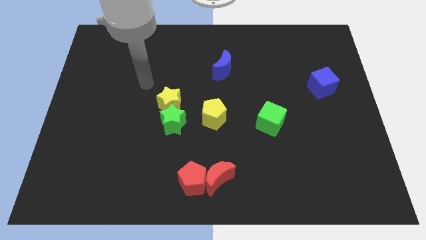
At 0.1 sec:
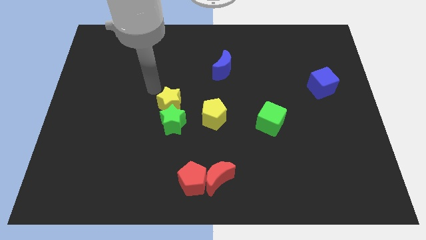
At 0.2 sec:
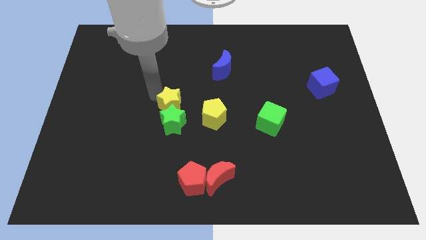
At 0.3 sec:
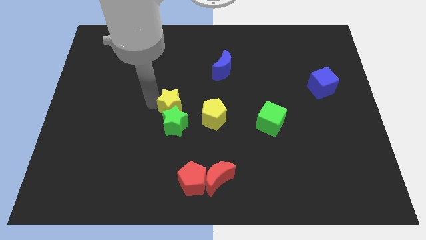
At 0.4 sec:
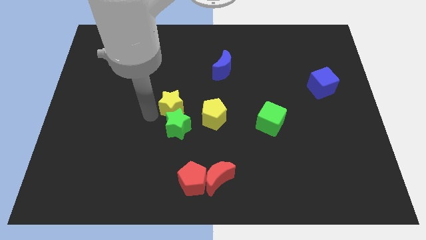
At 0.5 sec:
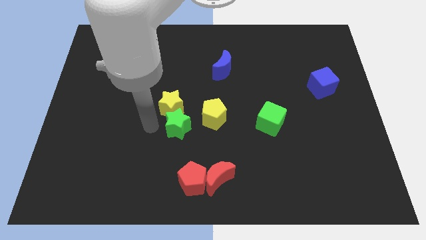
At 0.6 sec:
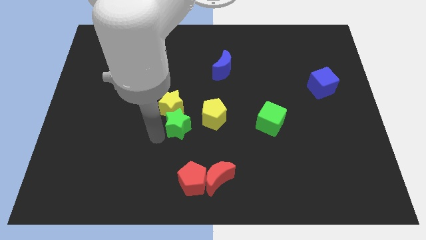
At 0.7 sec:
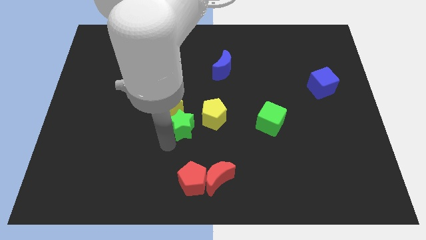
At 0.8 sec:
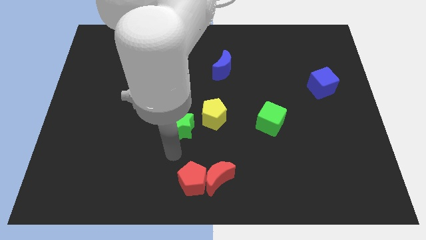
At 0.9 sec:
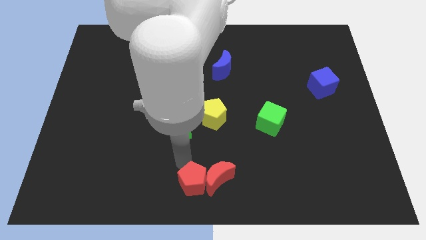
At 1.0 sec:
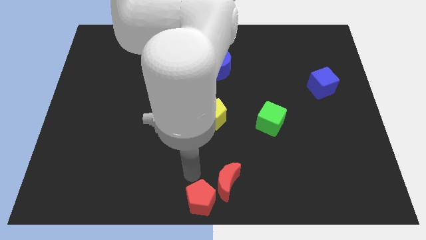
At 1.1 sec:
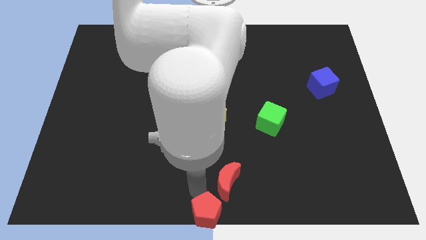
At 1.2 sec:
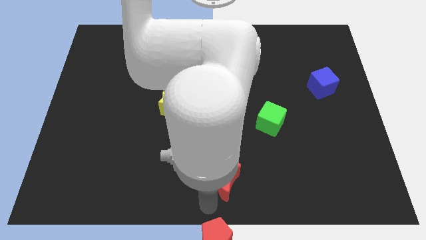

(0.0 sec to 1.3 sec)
move the red moon away from the red pentagon

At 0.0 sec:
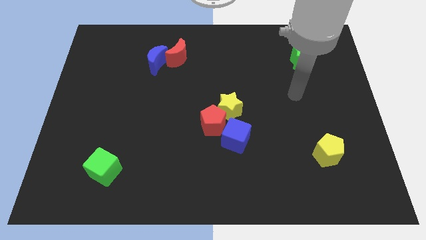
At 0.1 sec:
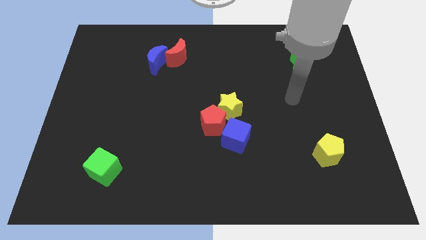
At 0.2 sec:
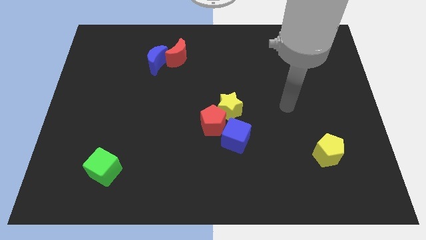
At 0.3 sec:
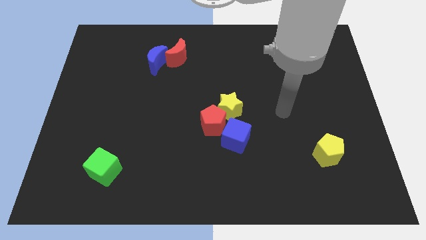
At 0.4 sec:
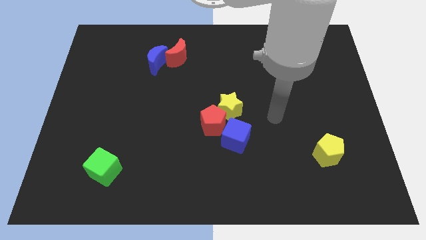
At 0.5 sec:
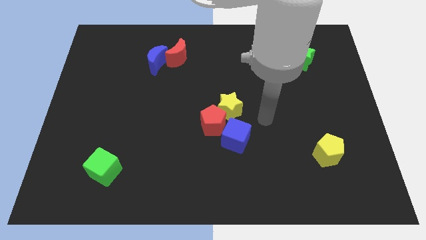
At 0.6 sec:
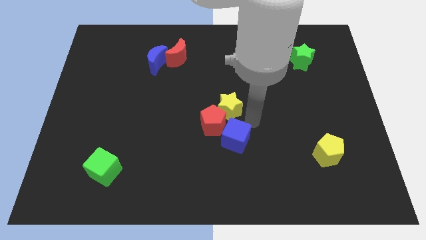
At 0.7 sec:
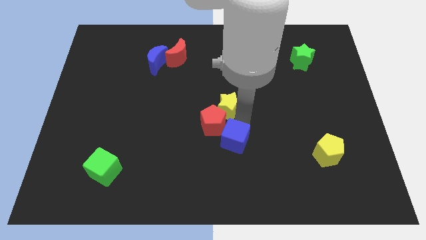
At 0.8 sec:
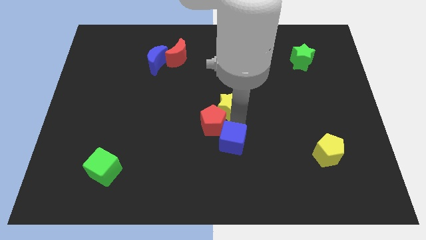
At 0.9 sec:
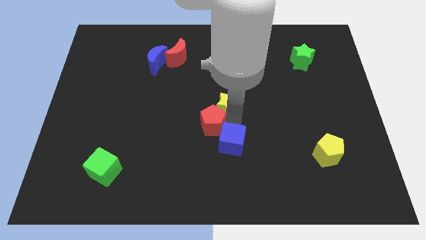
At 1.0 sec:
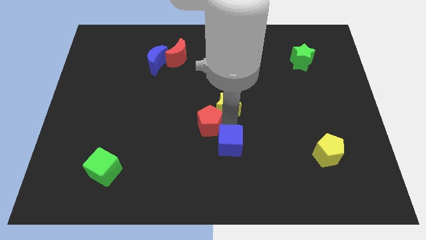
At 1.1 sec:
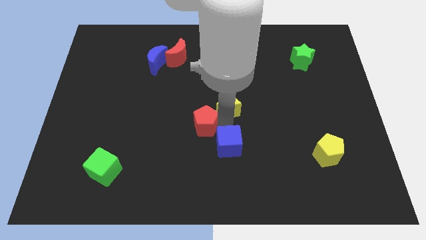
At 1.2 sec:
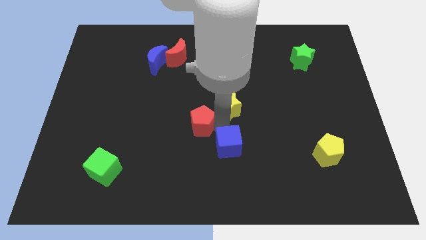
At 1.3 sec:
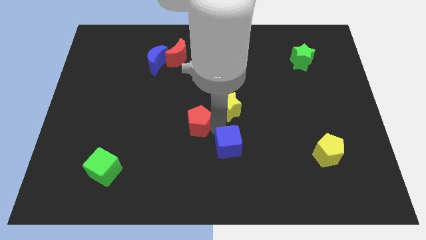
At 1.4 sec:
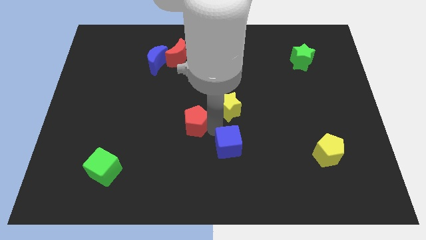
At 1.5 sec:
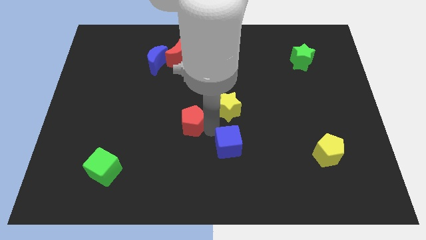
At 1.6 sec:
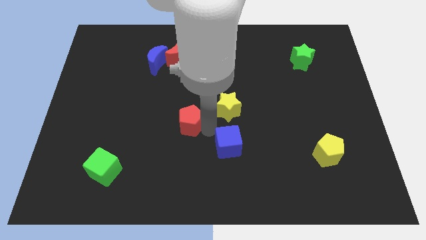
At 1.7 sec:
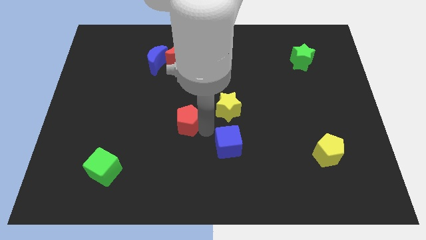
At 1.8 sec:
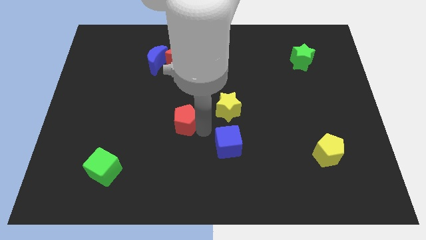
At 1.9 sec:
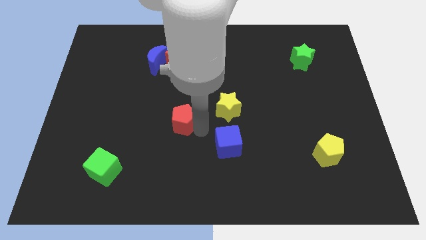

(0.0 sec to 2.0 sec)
move the red pentagon away from the yellow star and blue cube

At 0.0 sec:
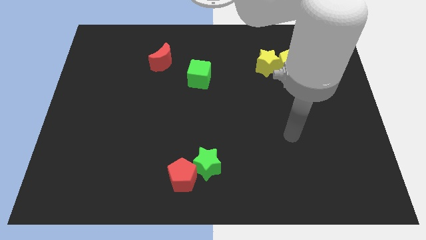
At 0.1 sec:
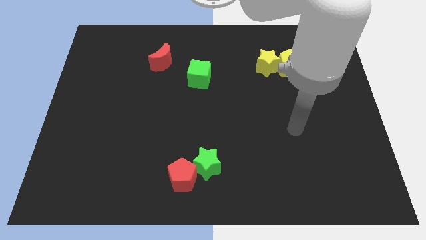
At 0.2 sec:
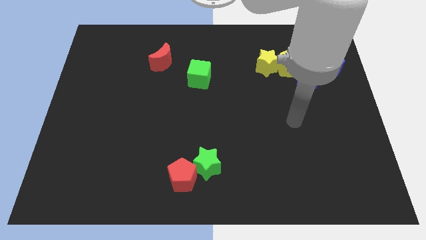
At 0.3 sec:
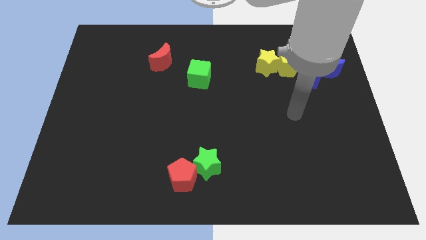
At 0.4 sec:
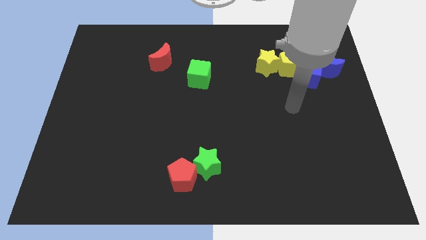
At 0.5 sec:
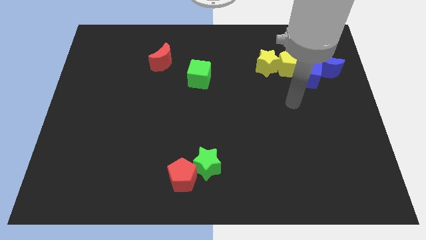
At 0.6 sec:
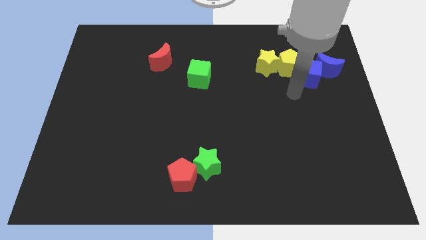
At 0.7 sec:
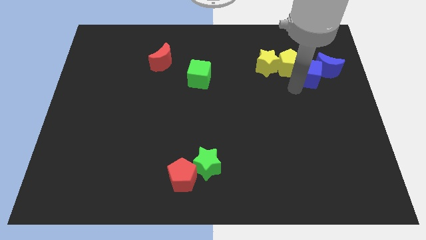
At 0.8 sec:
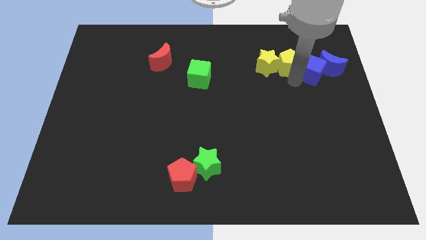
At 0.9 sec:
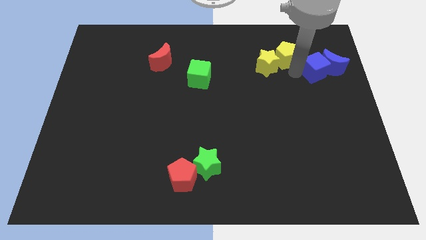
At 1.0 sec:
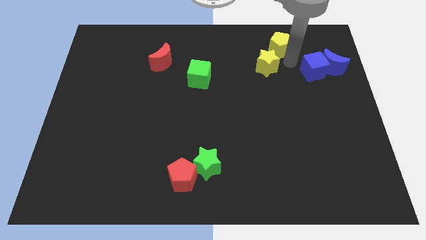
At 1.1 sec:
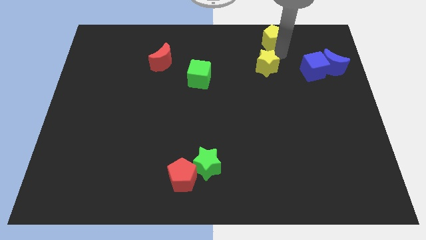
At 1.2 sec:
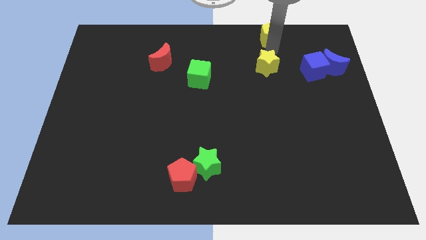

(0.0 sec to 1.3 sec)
move the yellow star away from the yellow pentagon

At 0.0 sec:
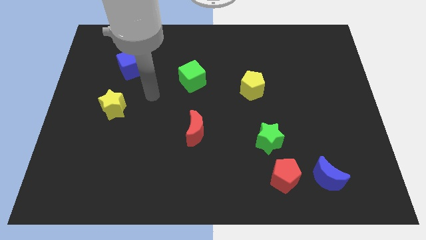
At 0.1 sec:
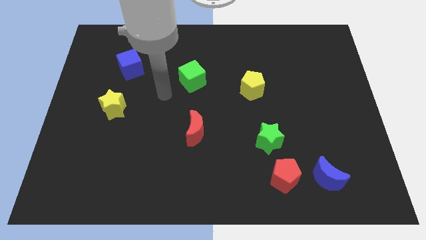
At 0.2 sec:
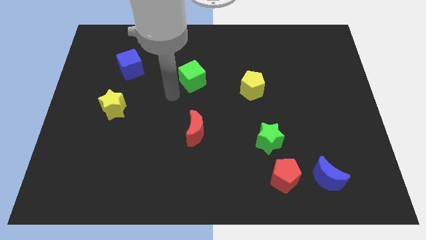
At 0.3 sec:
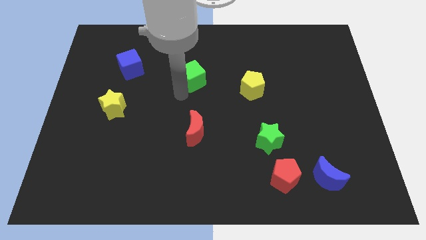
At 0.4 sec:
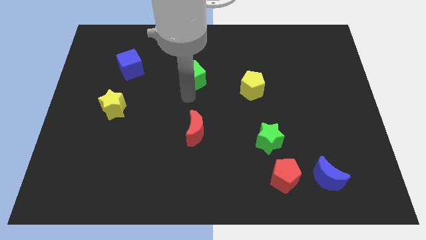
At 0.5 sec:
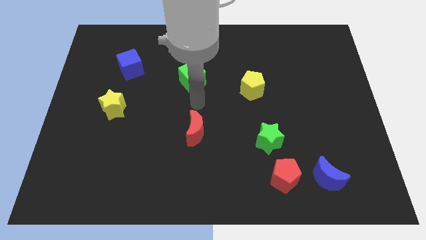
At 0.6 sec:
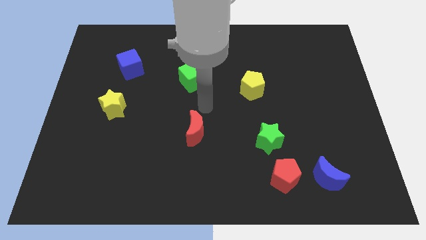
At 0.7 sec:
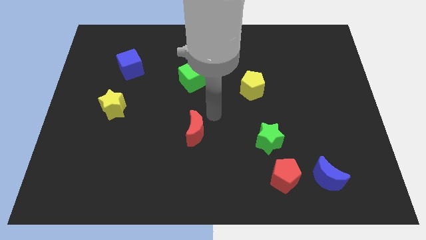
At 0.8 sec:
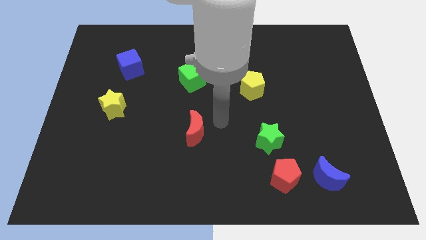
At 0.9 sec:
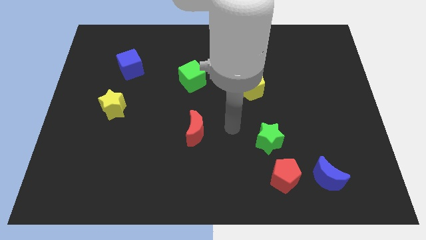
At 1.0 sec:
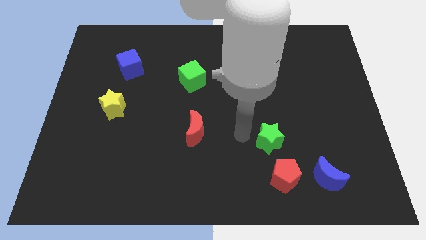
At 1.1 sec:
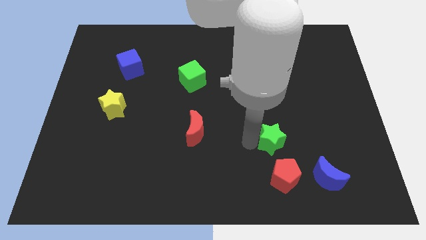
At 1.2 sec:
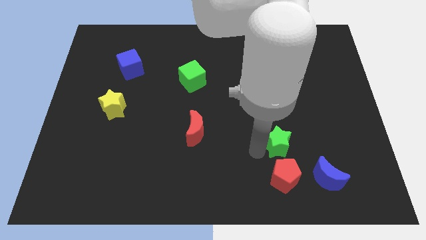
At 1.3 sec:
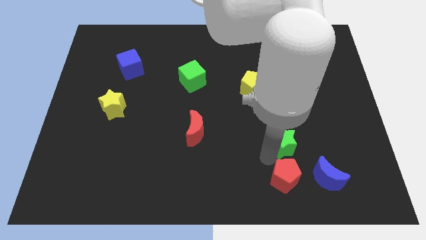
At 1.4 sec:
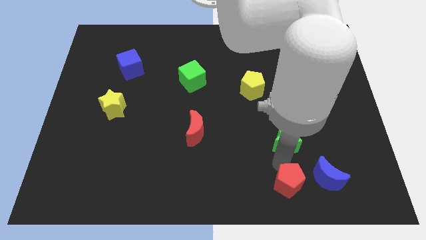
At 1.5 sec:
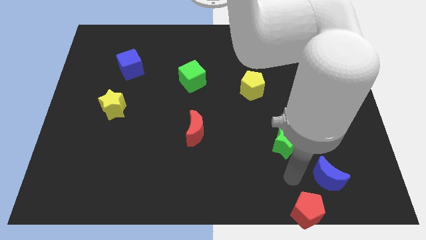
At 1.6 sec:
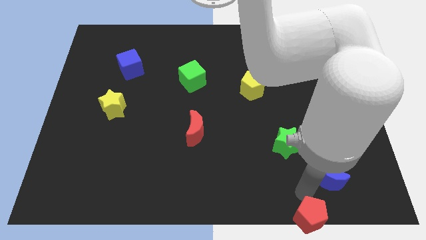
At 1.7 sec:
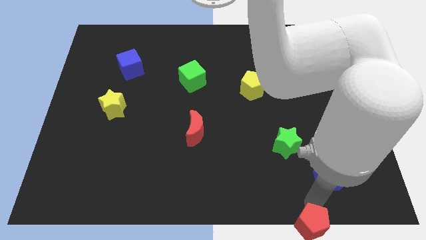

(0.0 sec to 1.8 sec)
move the blue moon away from the red pentagon

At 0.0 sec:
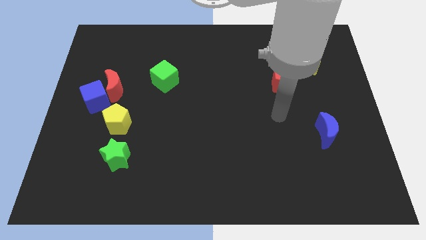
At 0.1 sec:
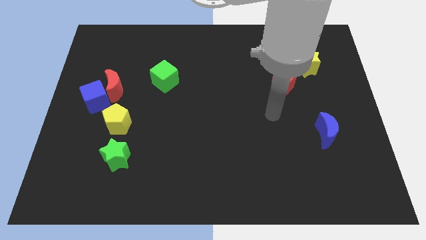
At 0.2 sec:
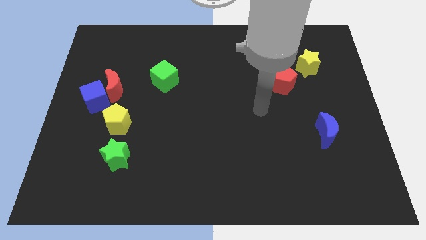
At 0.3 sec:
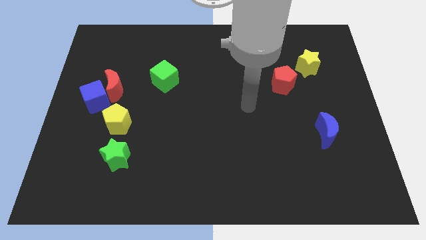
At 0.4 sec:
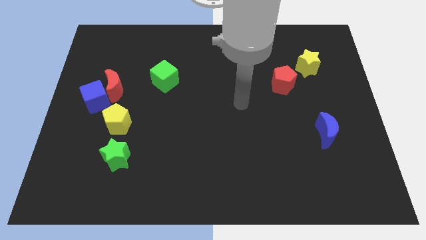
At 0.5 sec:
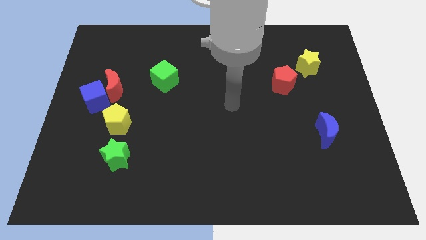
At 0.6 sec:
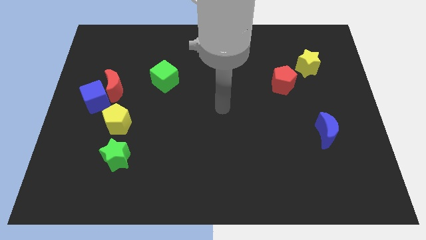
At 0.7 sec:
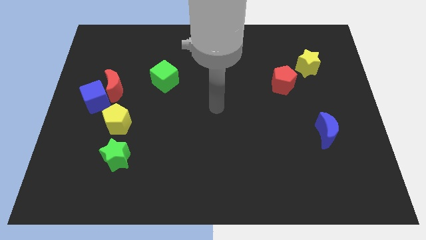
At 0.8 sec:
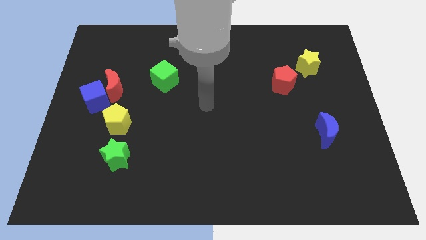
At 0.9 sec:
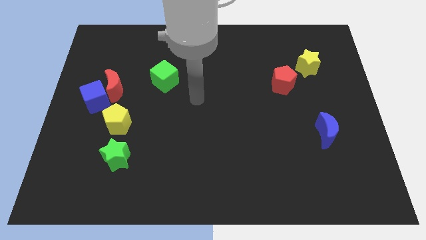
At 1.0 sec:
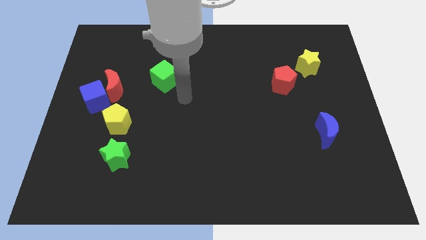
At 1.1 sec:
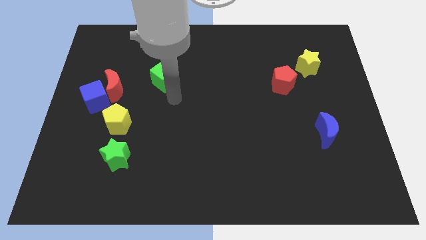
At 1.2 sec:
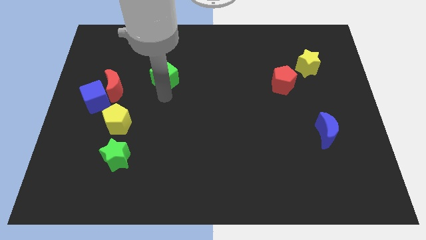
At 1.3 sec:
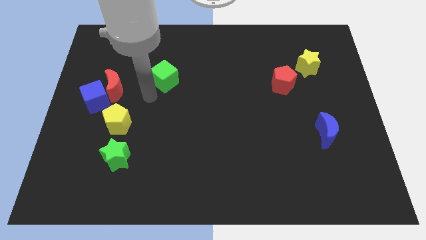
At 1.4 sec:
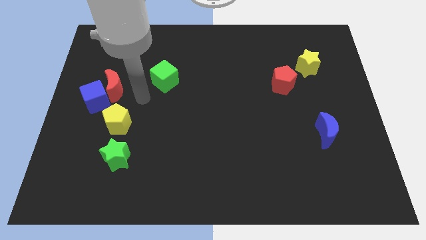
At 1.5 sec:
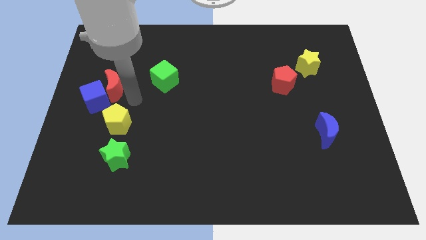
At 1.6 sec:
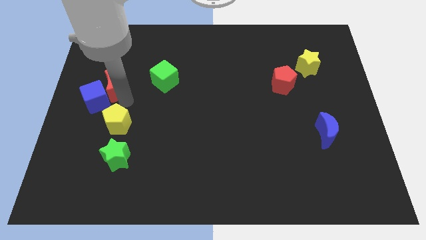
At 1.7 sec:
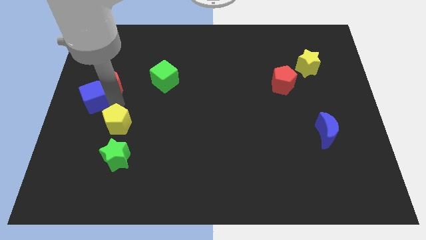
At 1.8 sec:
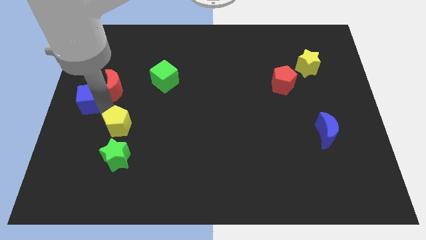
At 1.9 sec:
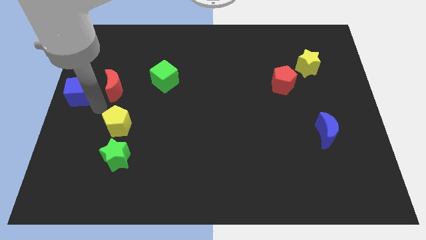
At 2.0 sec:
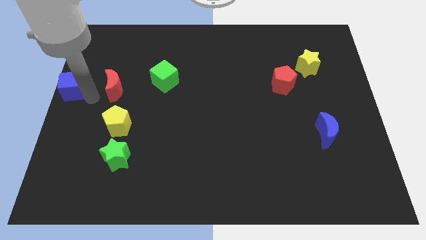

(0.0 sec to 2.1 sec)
separate the red moon from the blue cube

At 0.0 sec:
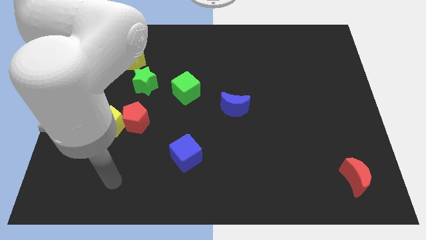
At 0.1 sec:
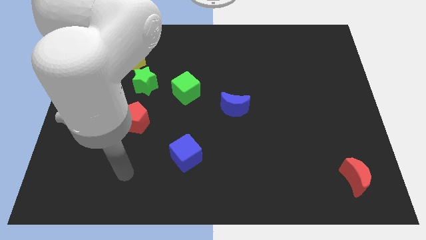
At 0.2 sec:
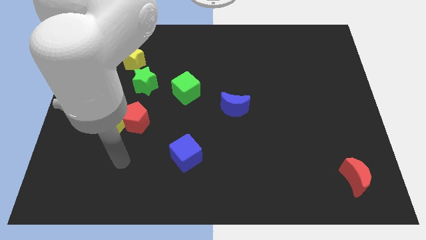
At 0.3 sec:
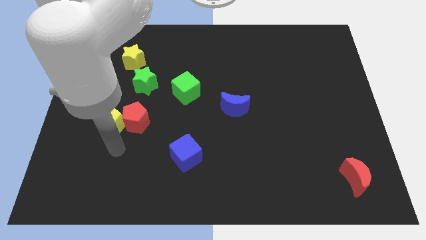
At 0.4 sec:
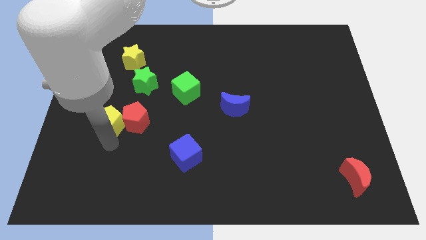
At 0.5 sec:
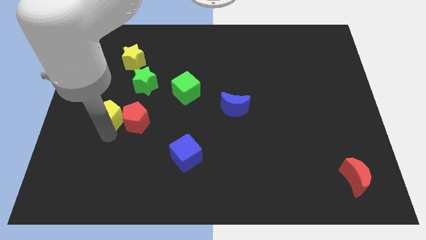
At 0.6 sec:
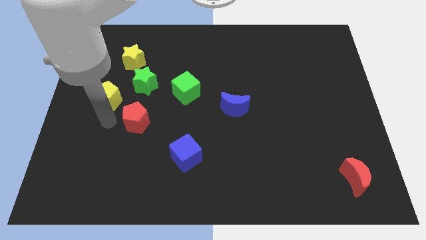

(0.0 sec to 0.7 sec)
move the red pentagon away from the yellow pentagon
